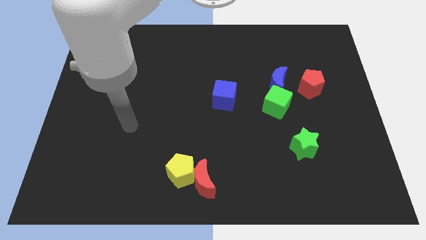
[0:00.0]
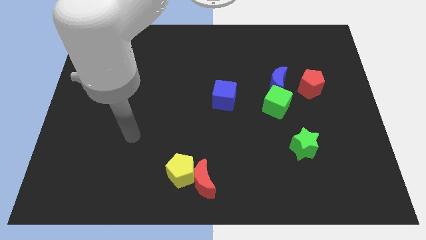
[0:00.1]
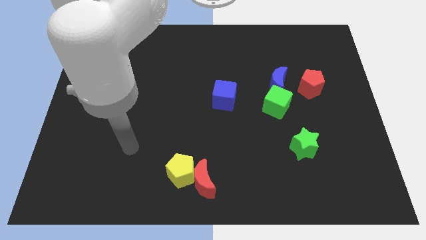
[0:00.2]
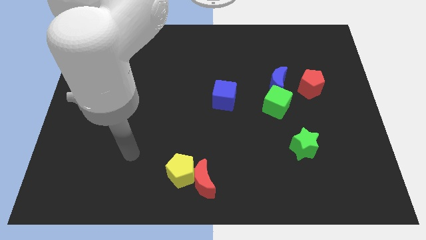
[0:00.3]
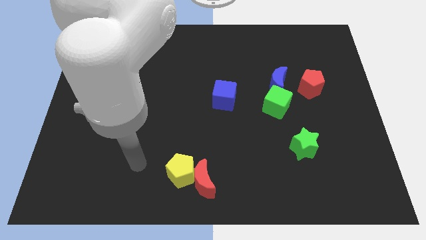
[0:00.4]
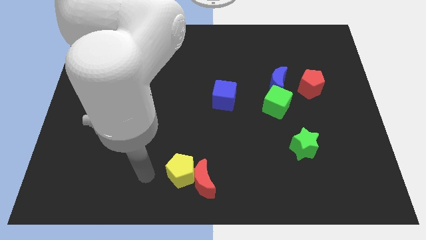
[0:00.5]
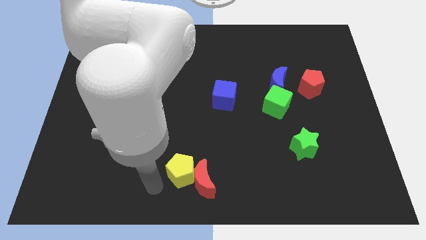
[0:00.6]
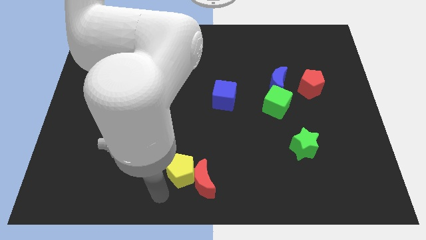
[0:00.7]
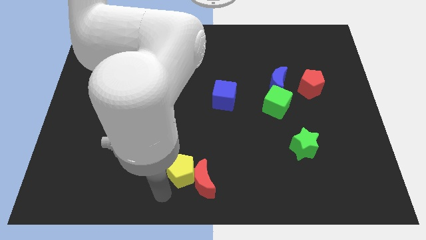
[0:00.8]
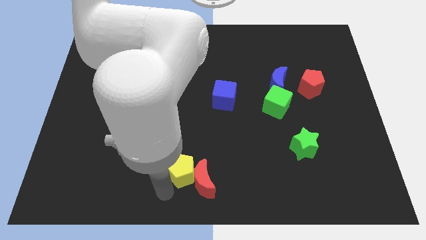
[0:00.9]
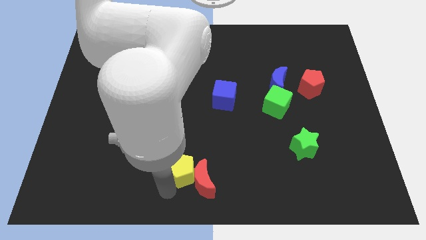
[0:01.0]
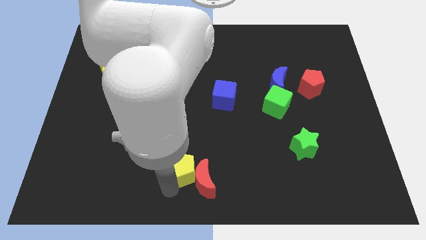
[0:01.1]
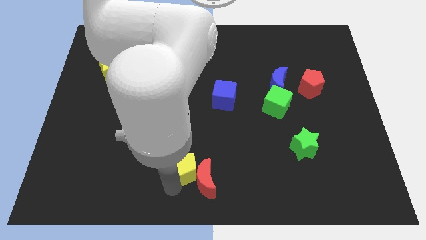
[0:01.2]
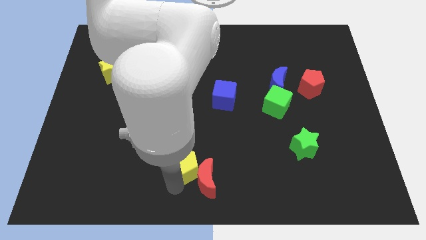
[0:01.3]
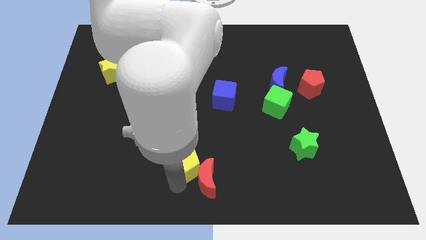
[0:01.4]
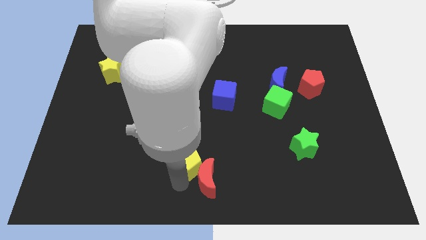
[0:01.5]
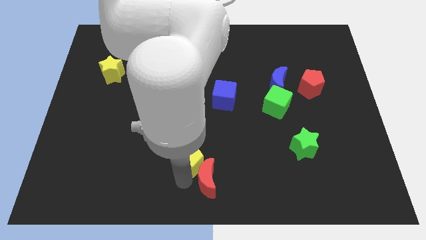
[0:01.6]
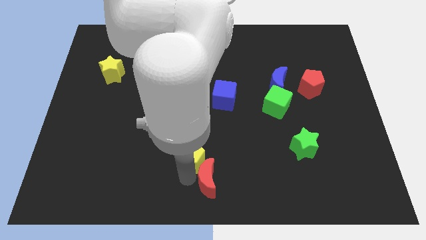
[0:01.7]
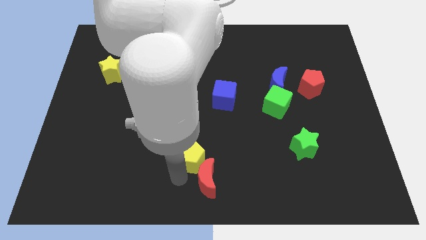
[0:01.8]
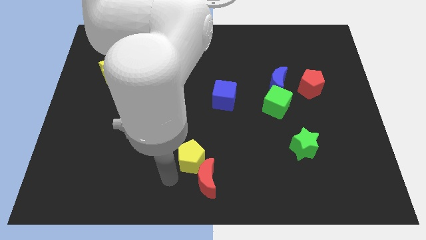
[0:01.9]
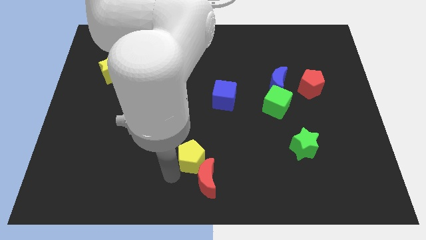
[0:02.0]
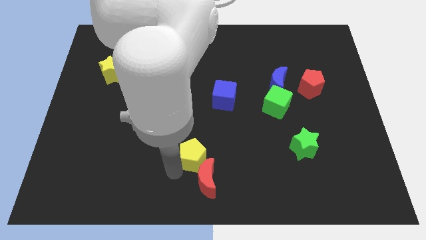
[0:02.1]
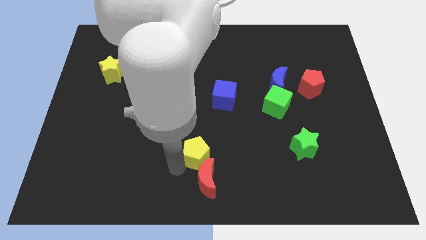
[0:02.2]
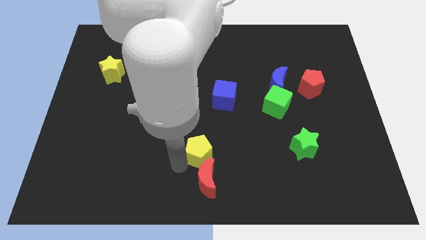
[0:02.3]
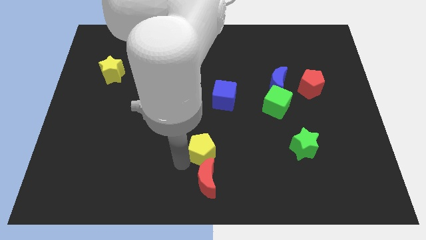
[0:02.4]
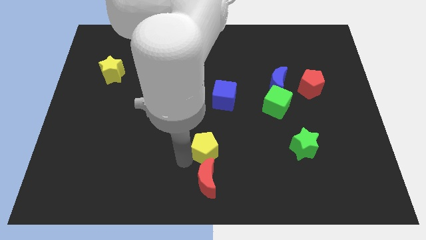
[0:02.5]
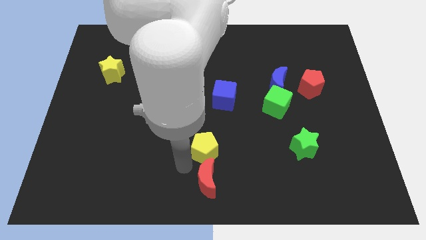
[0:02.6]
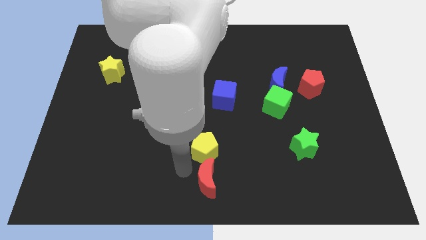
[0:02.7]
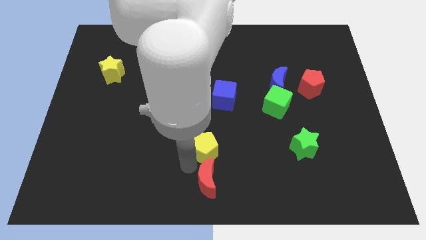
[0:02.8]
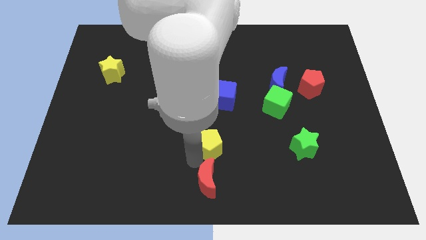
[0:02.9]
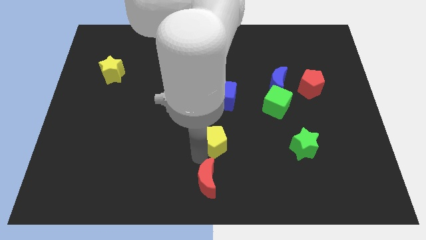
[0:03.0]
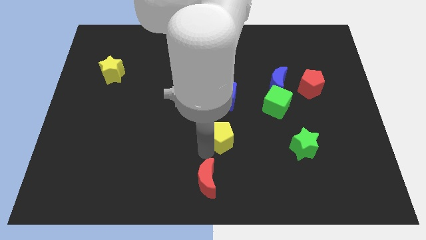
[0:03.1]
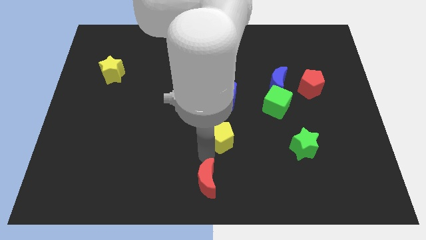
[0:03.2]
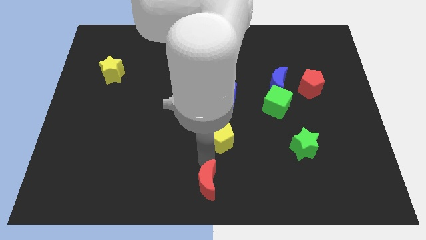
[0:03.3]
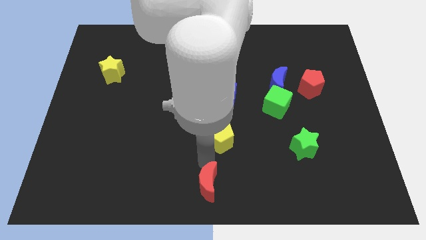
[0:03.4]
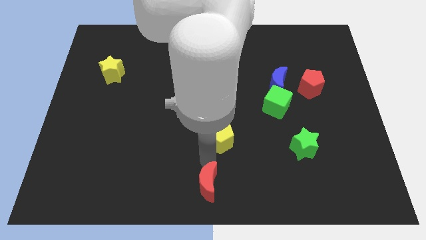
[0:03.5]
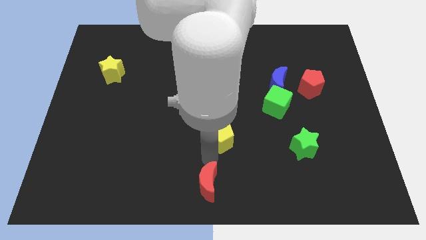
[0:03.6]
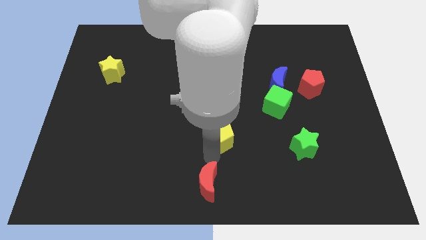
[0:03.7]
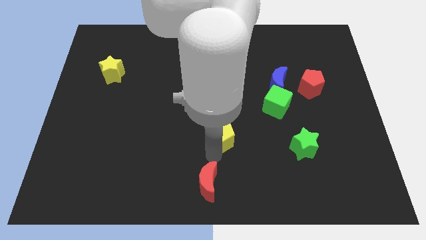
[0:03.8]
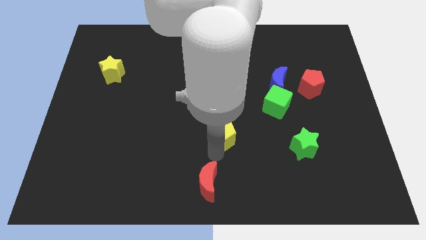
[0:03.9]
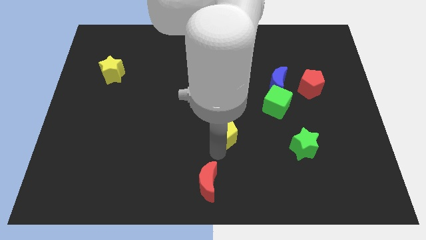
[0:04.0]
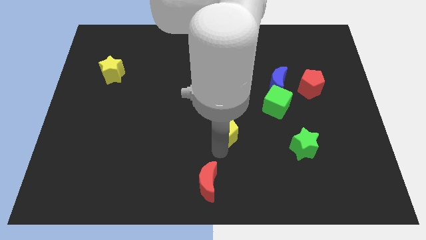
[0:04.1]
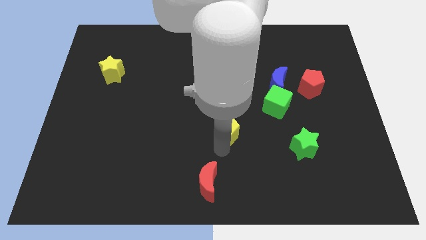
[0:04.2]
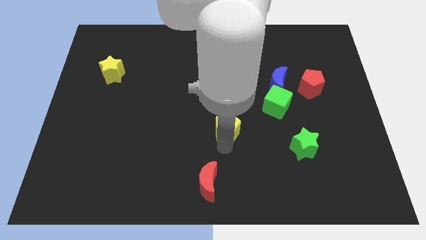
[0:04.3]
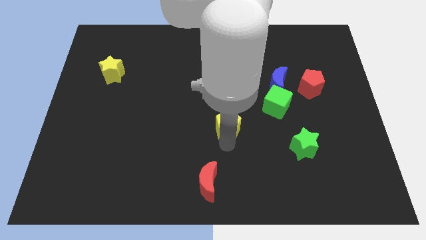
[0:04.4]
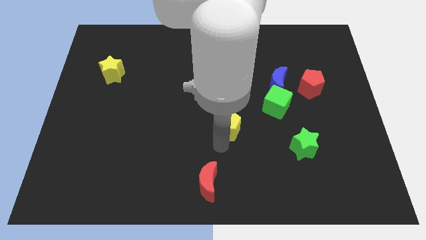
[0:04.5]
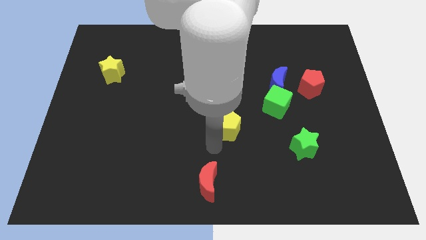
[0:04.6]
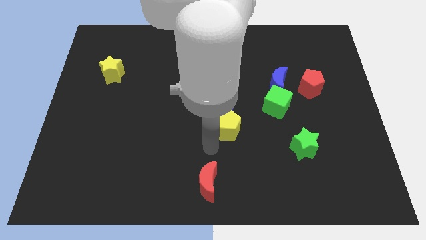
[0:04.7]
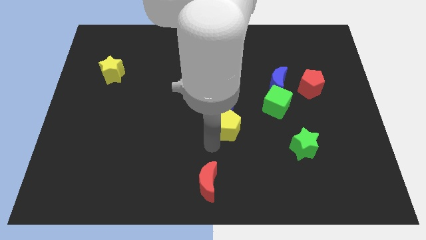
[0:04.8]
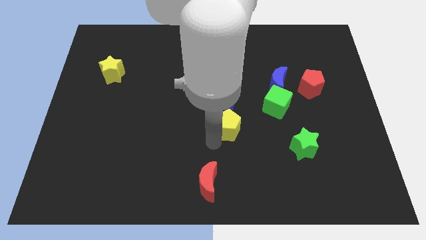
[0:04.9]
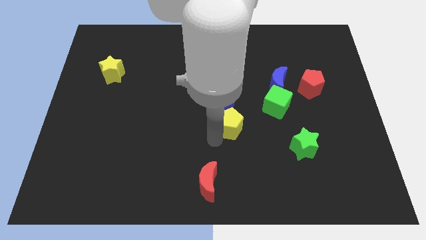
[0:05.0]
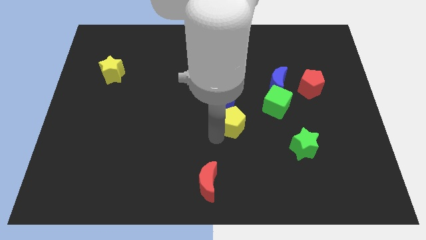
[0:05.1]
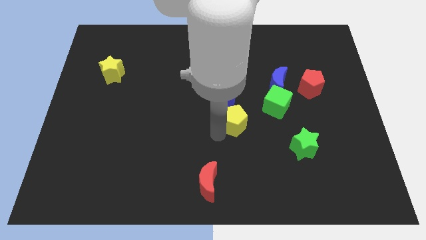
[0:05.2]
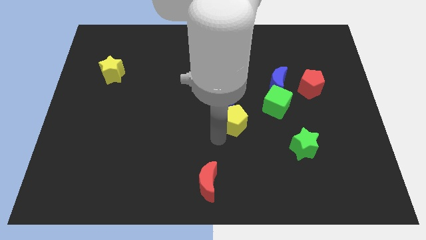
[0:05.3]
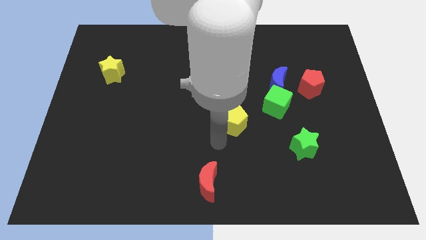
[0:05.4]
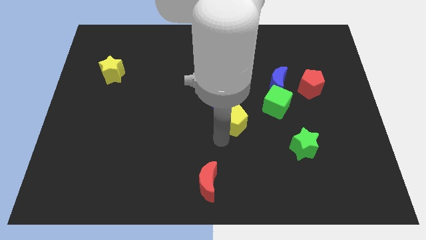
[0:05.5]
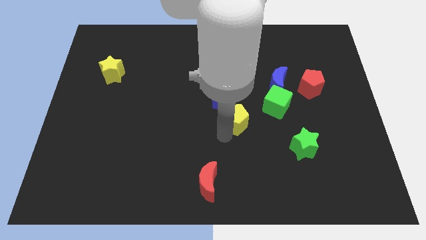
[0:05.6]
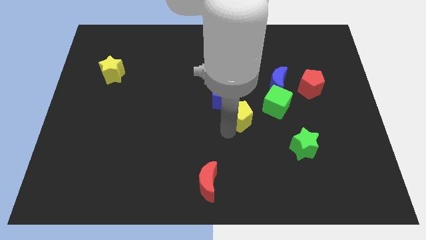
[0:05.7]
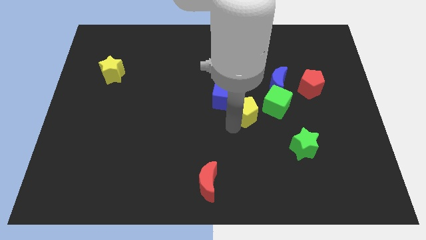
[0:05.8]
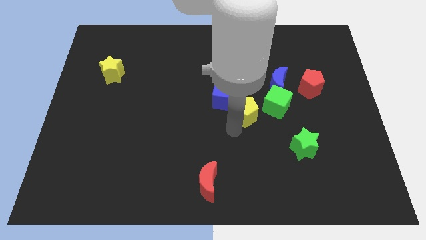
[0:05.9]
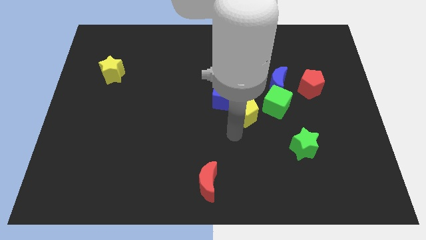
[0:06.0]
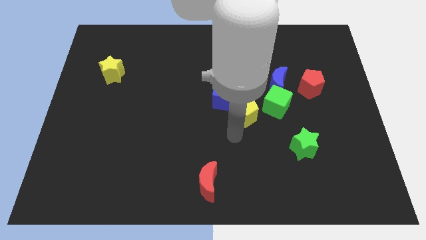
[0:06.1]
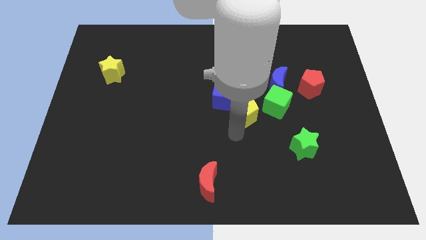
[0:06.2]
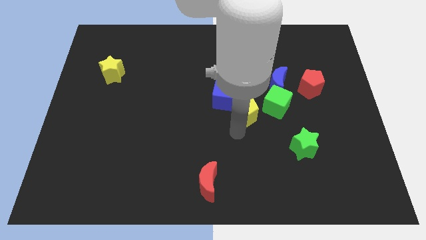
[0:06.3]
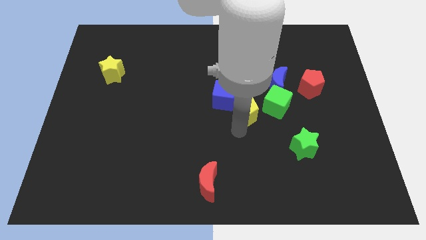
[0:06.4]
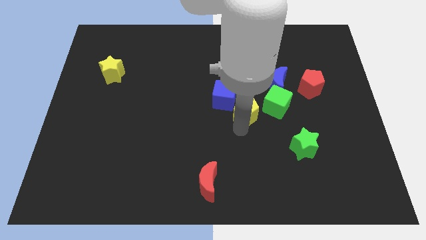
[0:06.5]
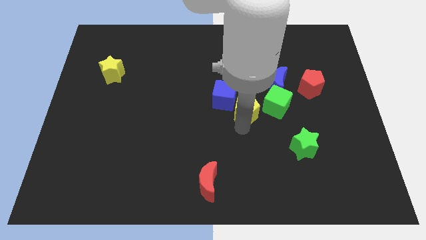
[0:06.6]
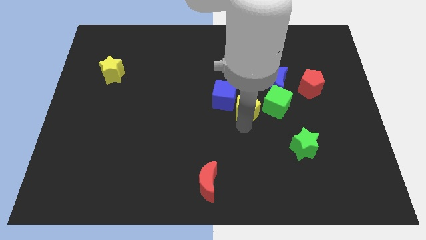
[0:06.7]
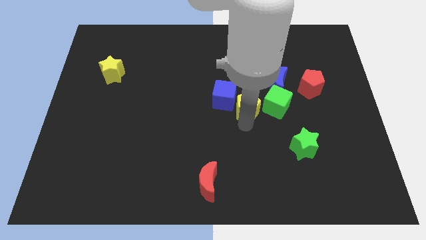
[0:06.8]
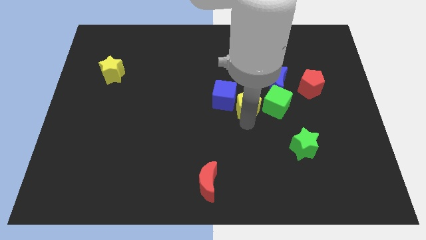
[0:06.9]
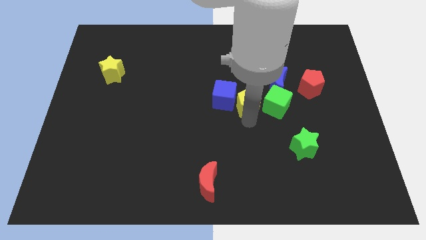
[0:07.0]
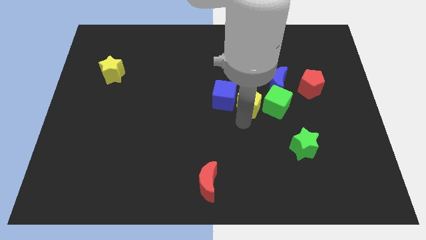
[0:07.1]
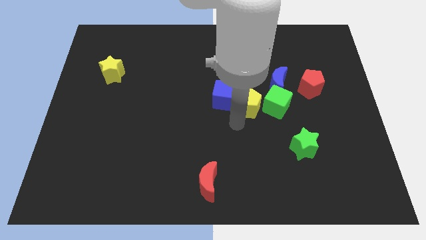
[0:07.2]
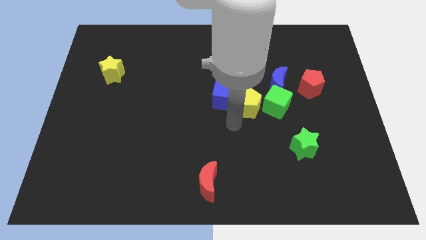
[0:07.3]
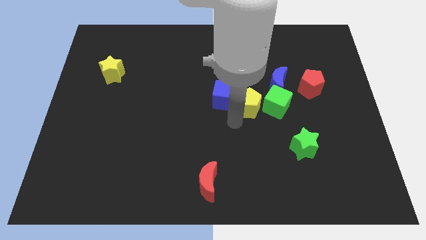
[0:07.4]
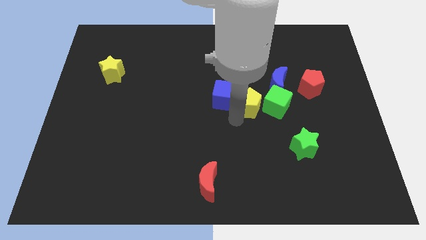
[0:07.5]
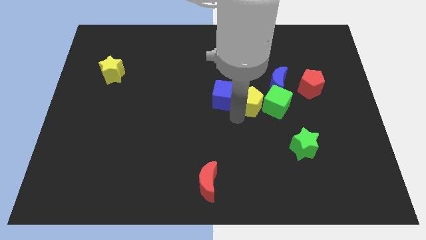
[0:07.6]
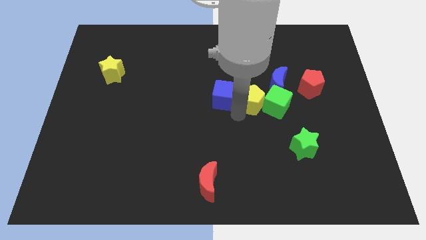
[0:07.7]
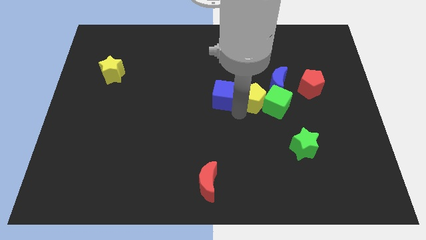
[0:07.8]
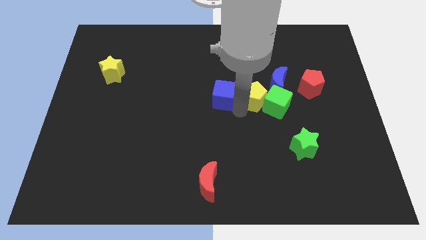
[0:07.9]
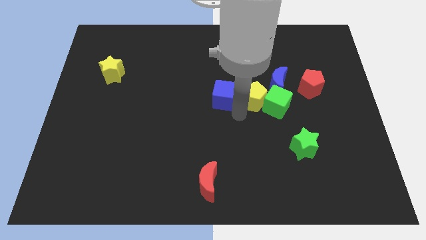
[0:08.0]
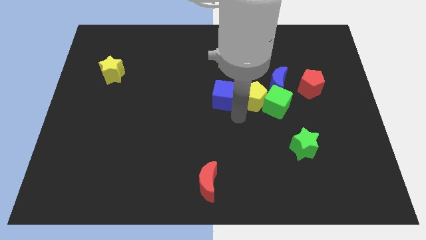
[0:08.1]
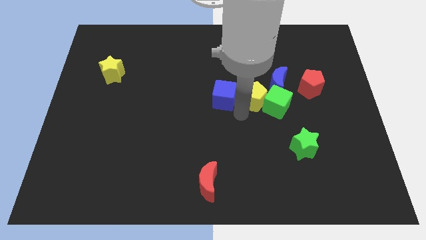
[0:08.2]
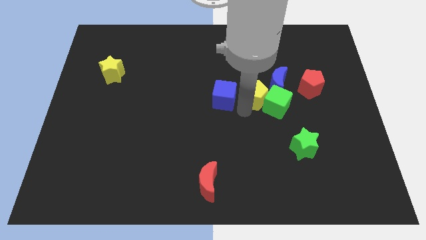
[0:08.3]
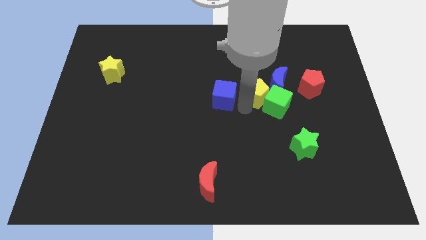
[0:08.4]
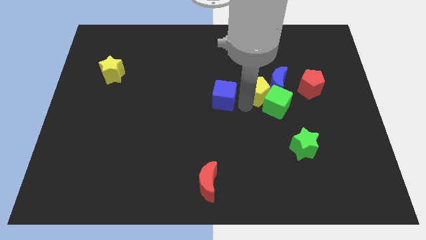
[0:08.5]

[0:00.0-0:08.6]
slide the yellow pentagon close to the blue moon
